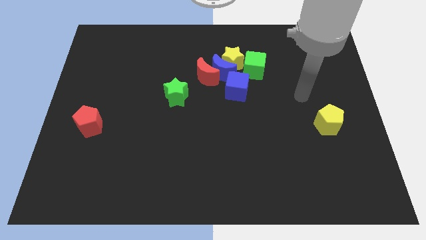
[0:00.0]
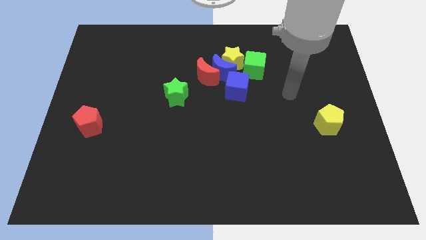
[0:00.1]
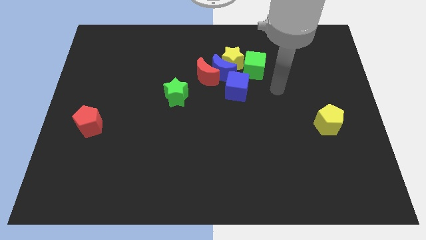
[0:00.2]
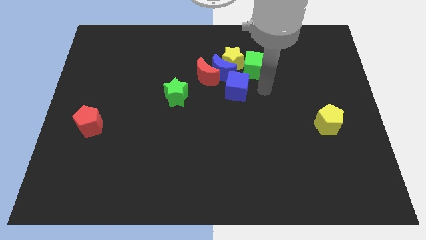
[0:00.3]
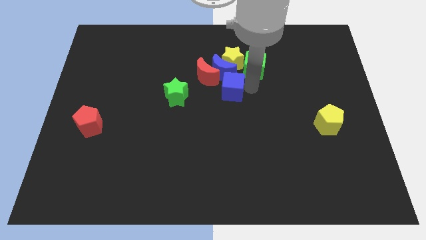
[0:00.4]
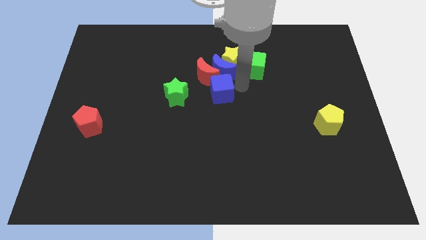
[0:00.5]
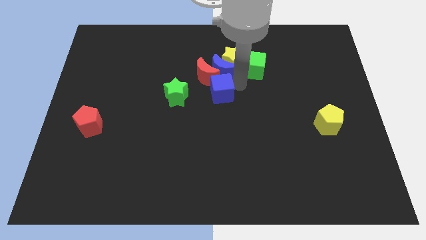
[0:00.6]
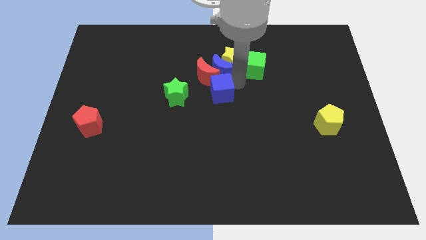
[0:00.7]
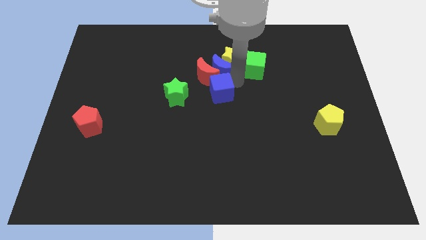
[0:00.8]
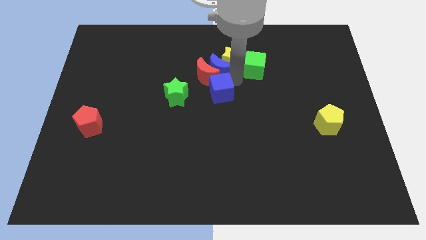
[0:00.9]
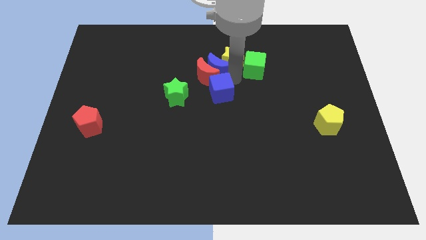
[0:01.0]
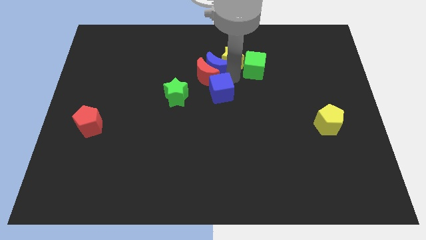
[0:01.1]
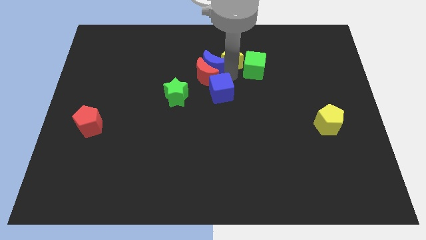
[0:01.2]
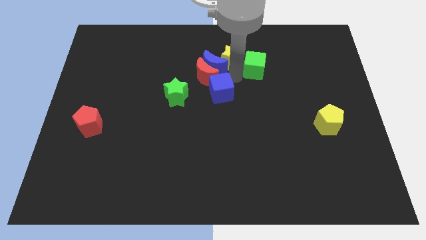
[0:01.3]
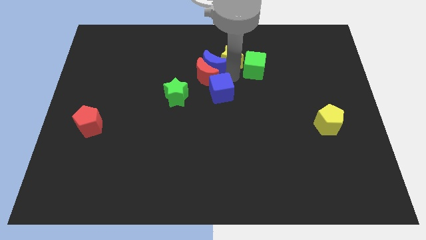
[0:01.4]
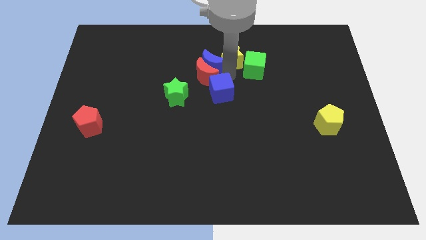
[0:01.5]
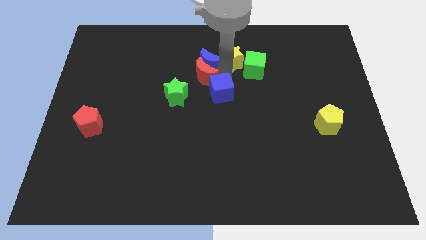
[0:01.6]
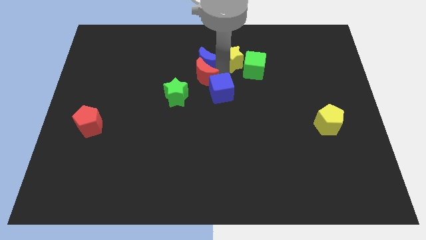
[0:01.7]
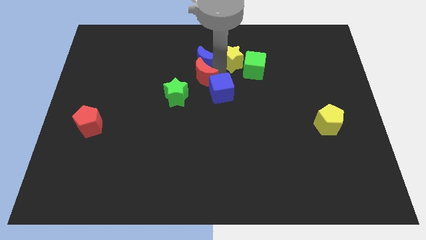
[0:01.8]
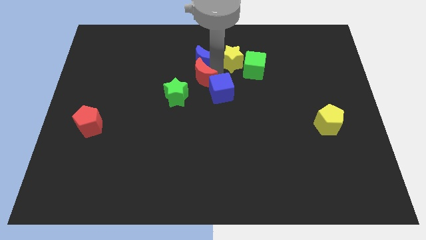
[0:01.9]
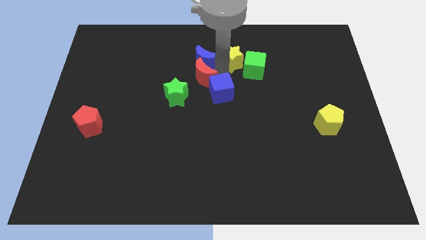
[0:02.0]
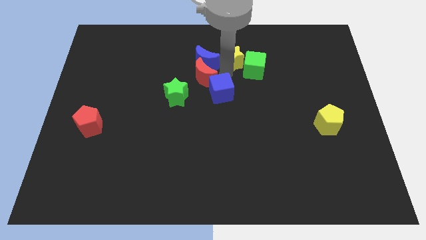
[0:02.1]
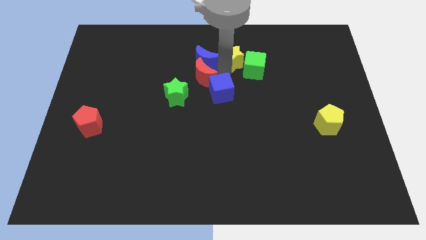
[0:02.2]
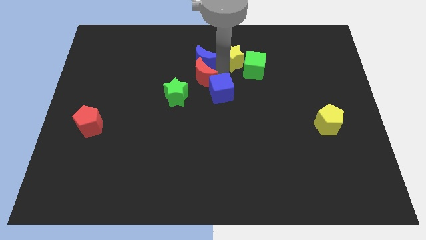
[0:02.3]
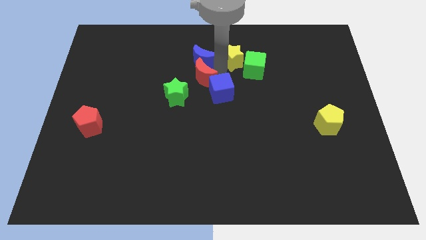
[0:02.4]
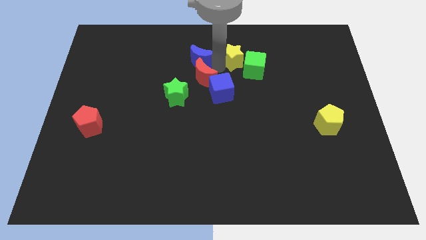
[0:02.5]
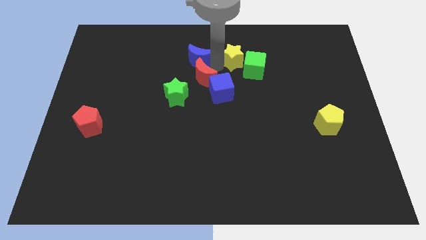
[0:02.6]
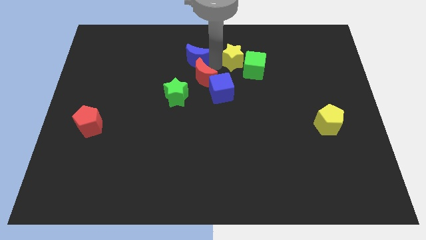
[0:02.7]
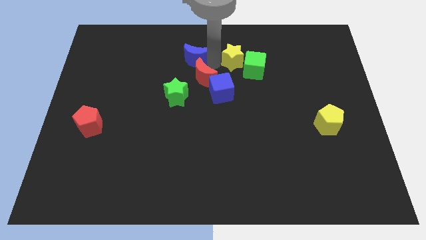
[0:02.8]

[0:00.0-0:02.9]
move the blue moon away from the group

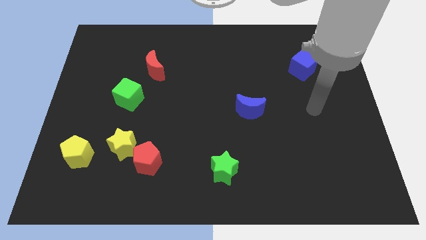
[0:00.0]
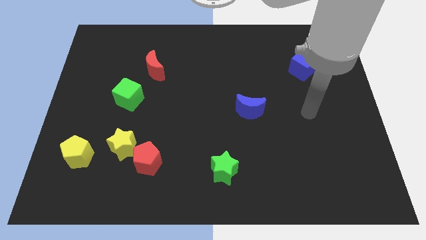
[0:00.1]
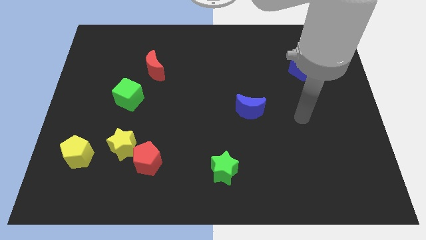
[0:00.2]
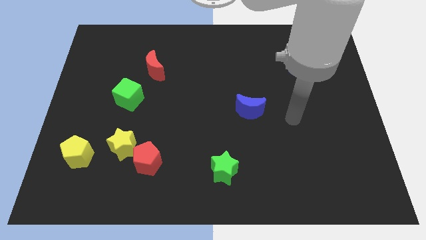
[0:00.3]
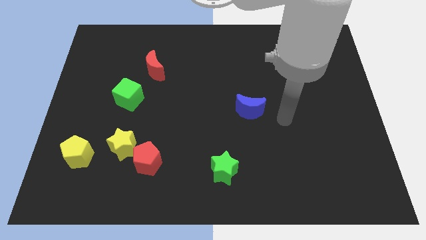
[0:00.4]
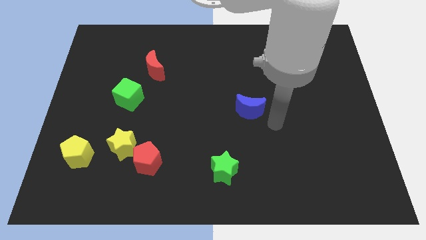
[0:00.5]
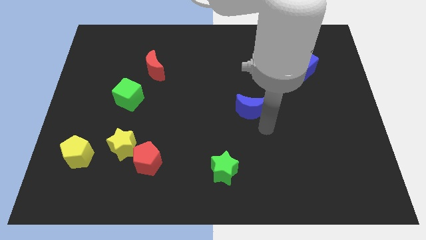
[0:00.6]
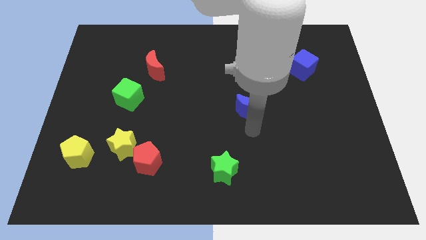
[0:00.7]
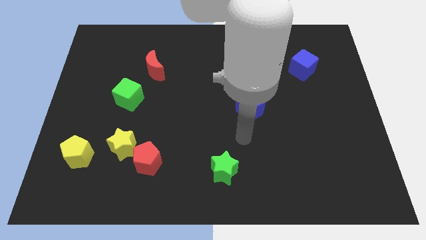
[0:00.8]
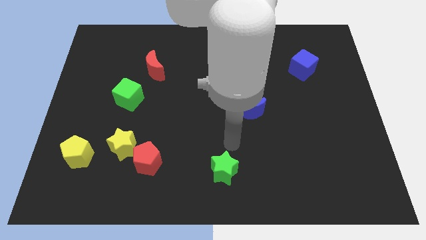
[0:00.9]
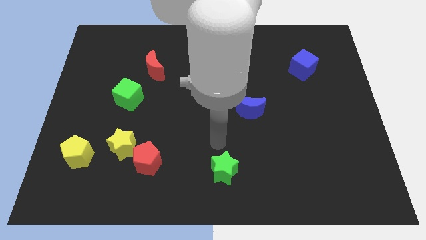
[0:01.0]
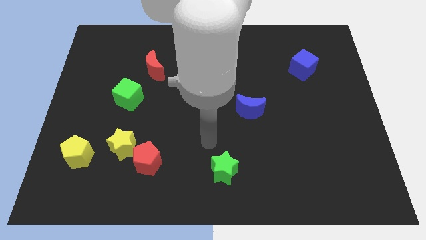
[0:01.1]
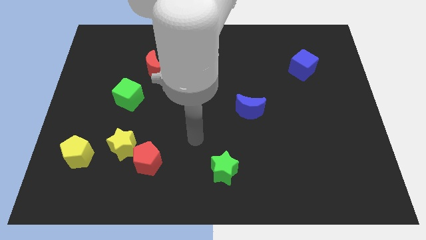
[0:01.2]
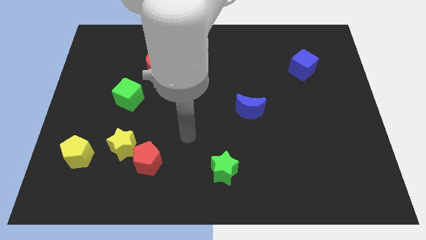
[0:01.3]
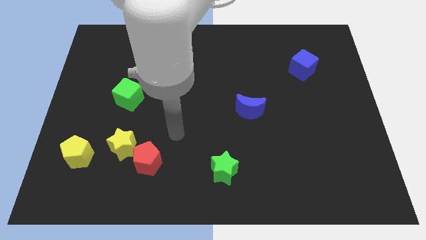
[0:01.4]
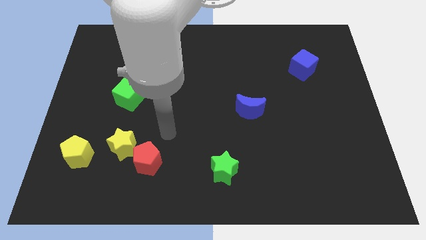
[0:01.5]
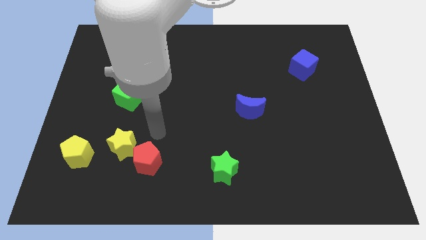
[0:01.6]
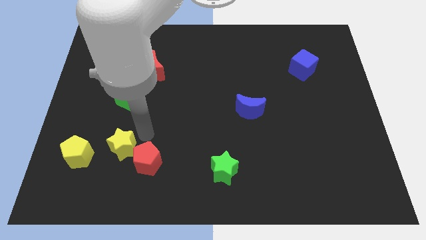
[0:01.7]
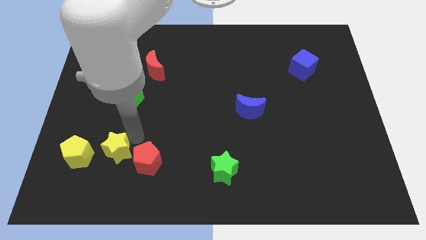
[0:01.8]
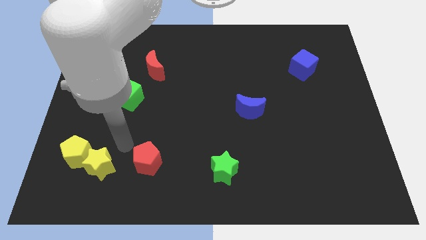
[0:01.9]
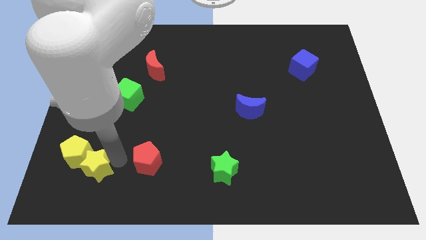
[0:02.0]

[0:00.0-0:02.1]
pull the red pentagon apart from the yellow star

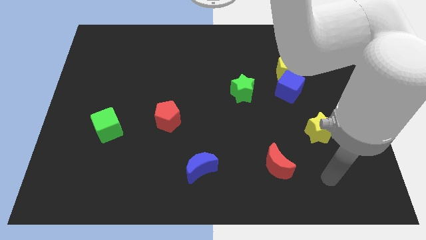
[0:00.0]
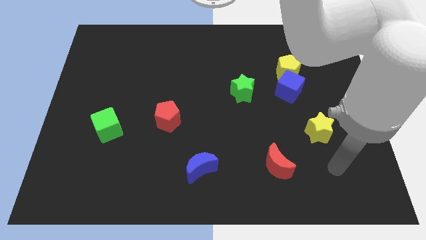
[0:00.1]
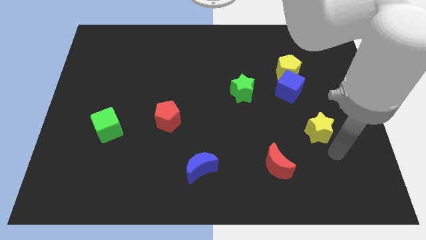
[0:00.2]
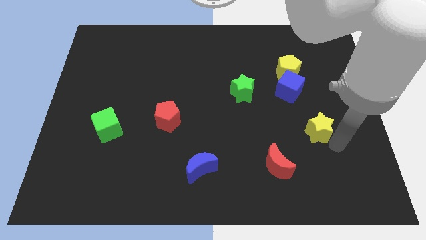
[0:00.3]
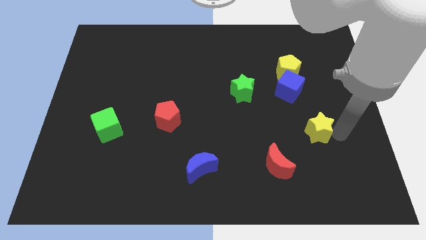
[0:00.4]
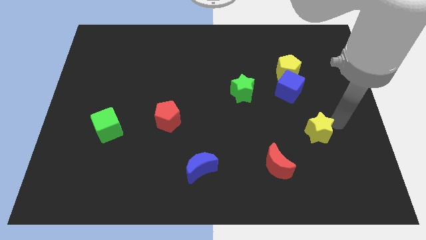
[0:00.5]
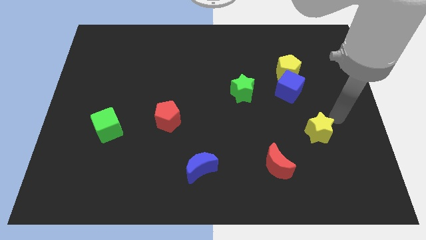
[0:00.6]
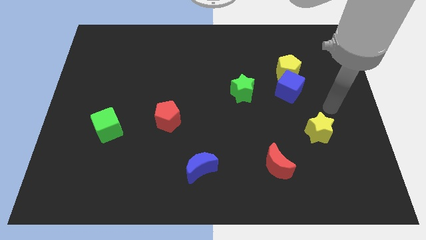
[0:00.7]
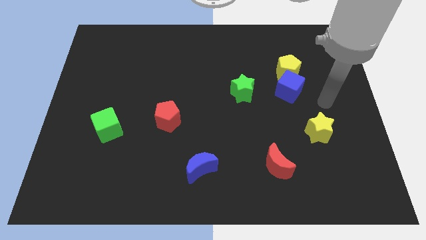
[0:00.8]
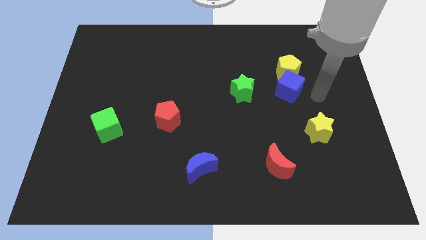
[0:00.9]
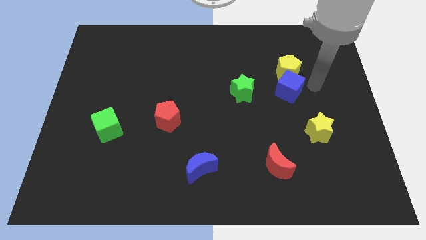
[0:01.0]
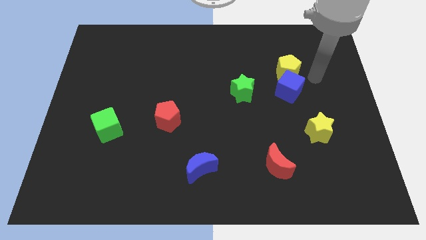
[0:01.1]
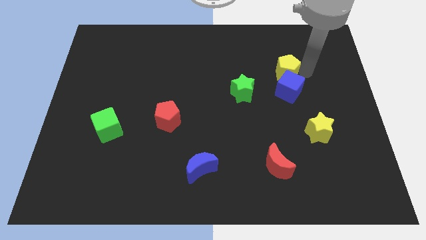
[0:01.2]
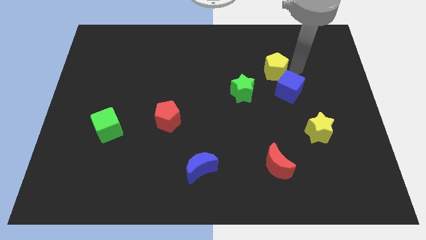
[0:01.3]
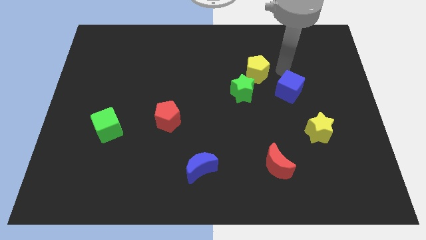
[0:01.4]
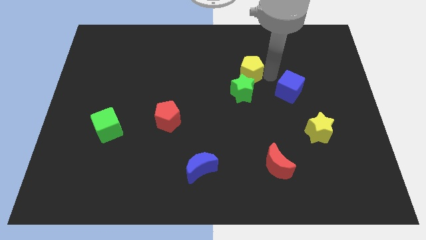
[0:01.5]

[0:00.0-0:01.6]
pull the blue cube apart from the yellow pentagon

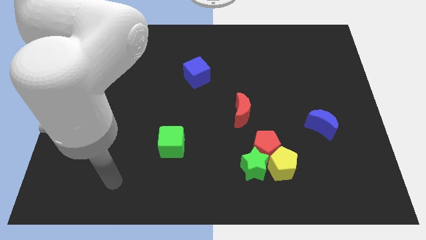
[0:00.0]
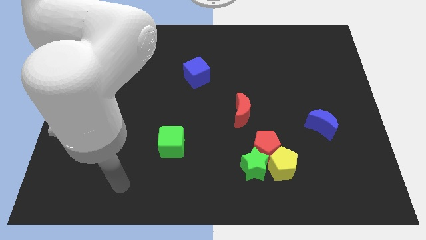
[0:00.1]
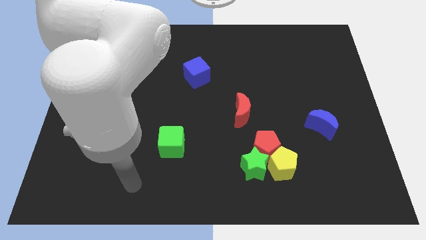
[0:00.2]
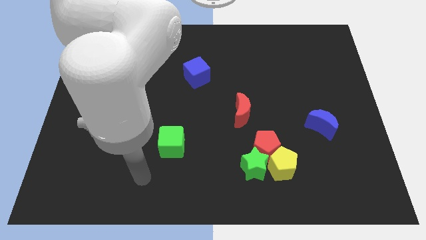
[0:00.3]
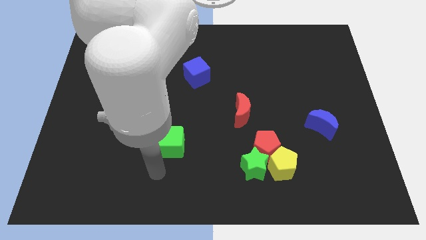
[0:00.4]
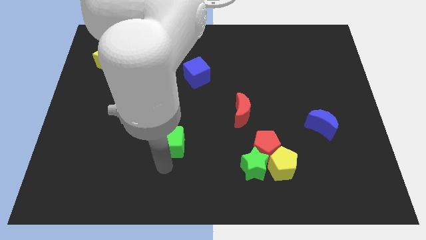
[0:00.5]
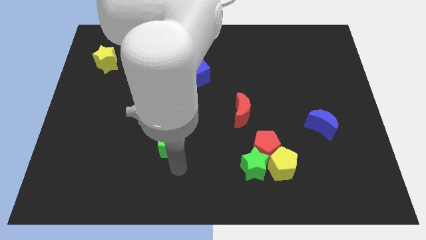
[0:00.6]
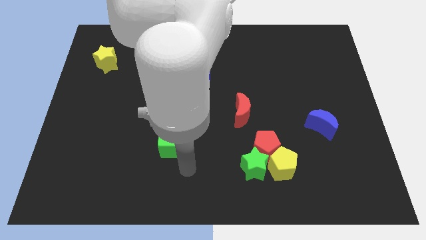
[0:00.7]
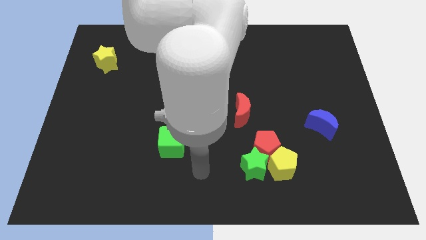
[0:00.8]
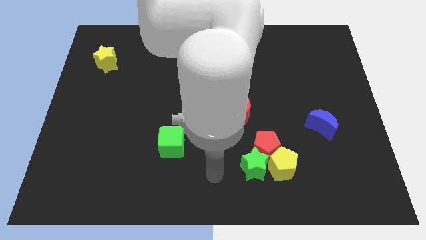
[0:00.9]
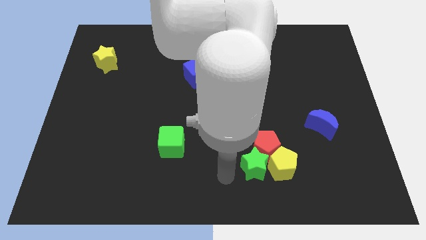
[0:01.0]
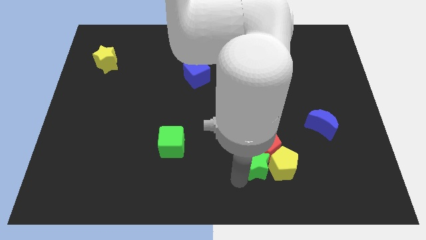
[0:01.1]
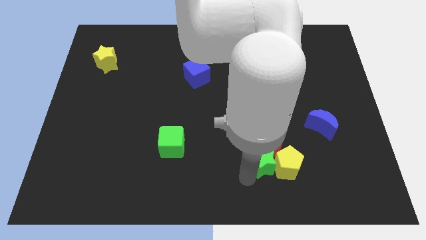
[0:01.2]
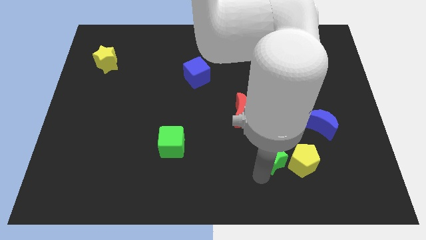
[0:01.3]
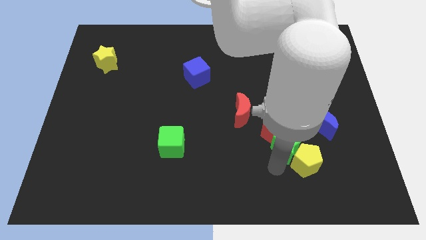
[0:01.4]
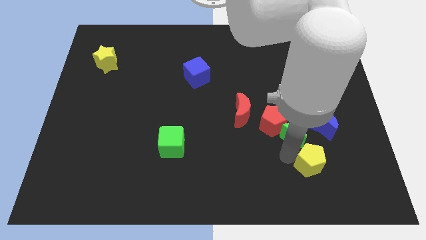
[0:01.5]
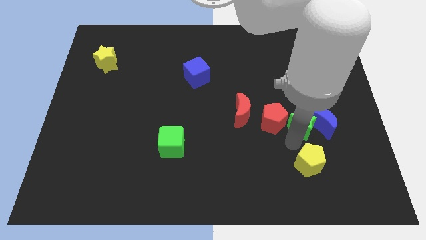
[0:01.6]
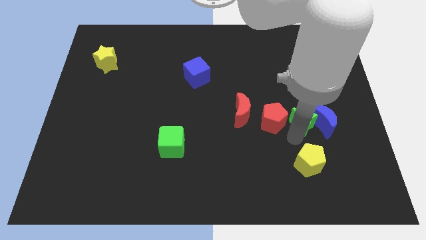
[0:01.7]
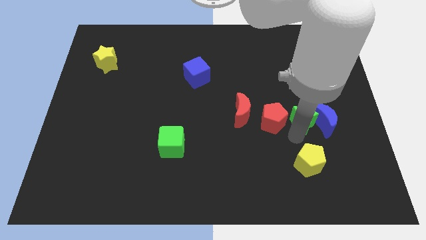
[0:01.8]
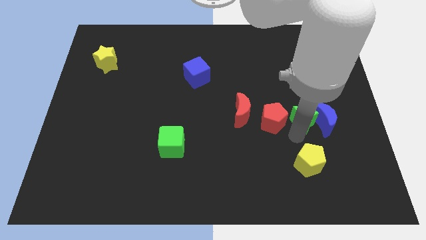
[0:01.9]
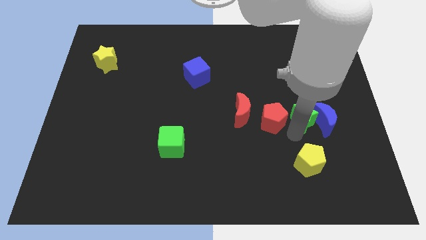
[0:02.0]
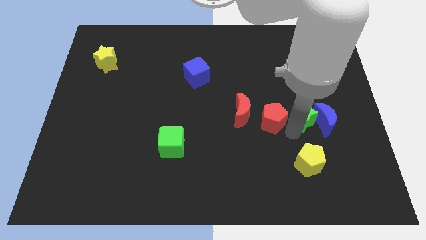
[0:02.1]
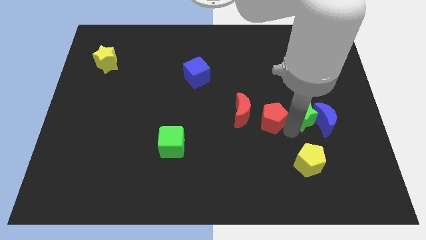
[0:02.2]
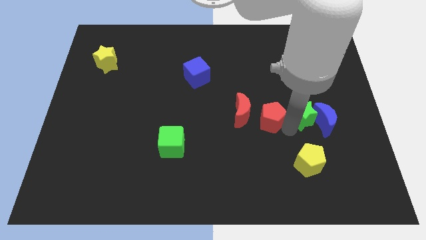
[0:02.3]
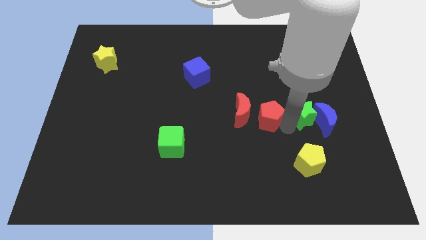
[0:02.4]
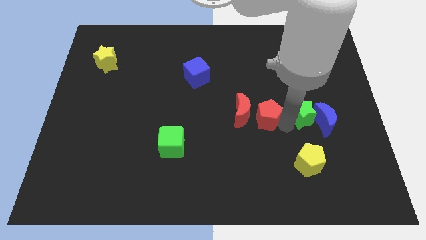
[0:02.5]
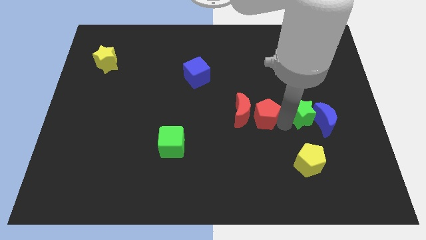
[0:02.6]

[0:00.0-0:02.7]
move the red pentagon away from the green star and yellow pentagon
